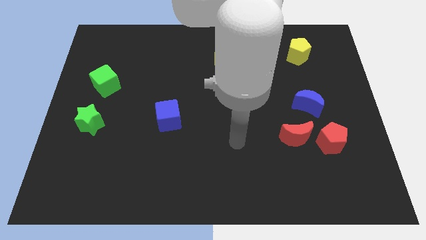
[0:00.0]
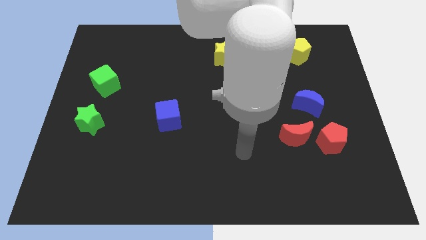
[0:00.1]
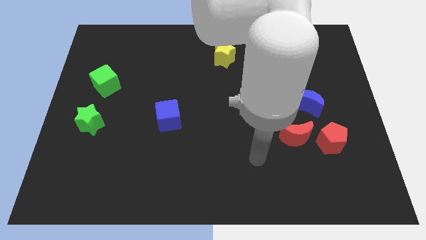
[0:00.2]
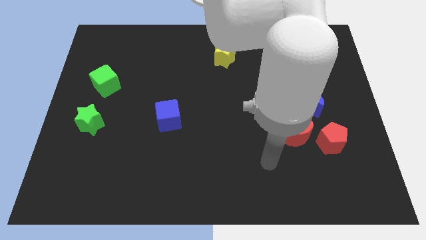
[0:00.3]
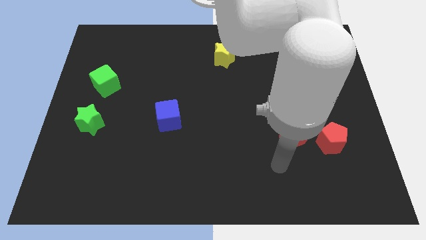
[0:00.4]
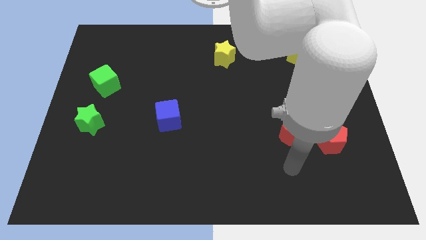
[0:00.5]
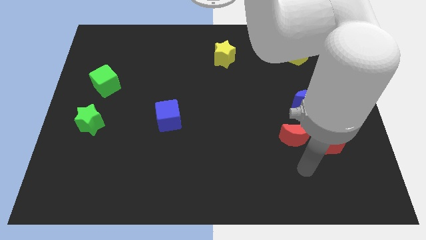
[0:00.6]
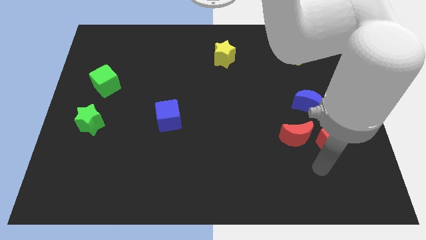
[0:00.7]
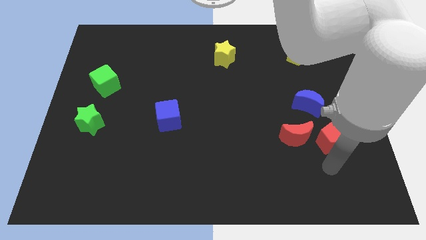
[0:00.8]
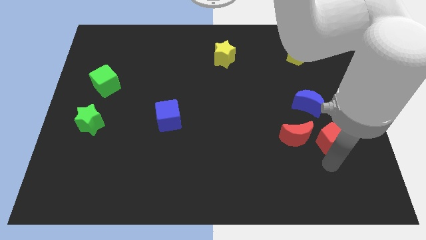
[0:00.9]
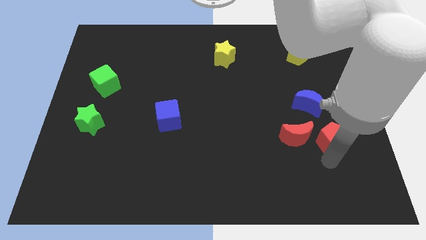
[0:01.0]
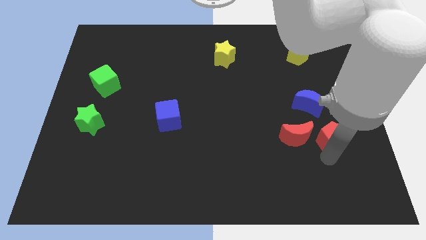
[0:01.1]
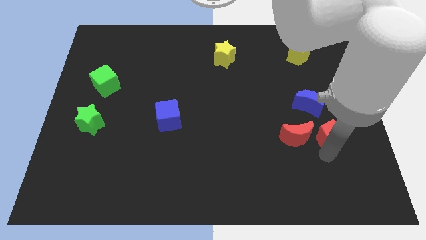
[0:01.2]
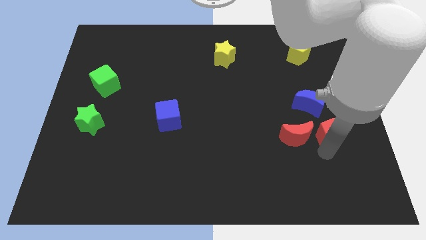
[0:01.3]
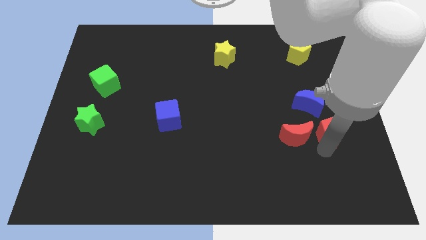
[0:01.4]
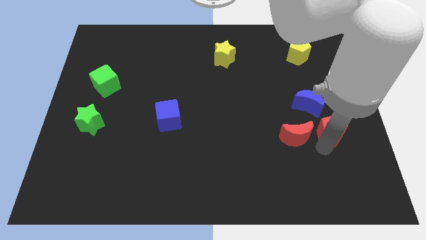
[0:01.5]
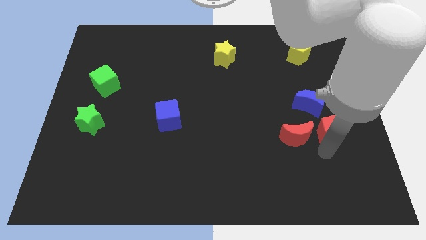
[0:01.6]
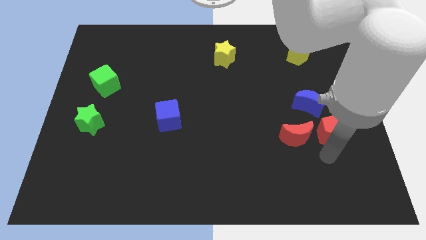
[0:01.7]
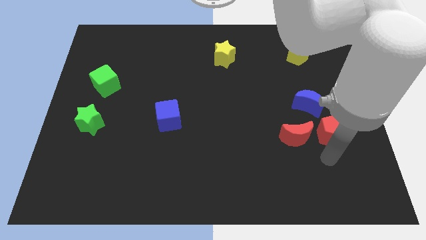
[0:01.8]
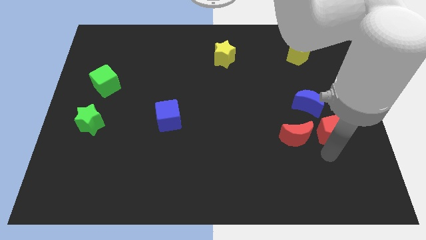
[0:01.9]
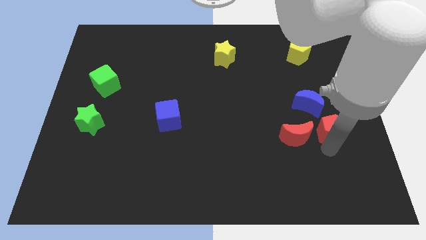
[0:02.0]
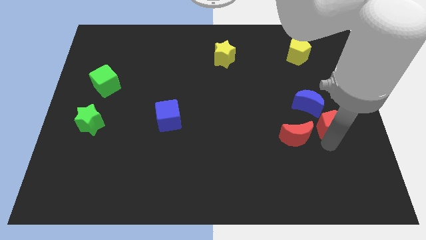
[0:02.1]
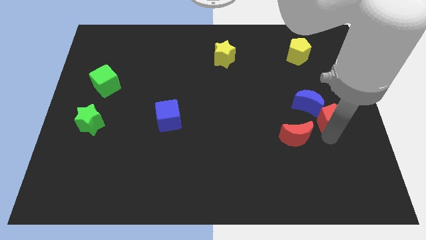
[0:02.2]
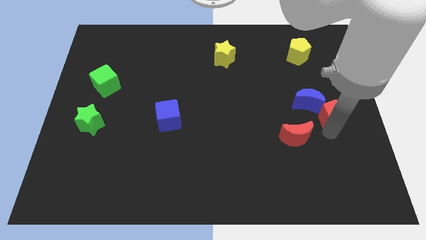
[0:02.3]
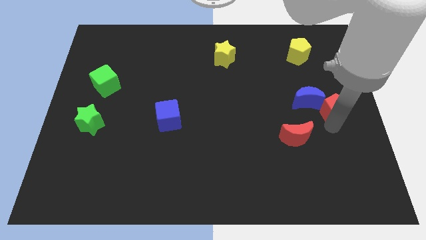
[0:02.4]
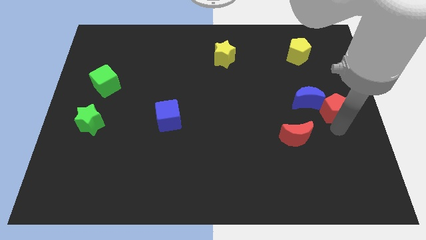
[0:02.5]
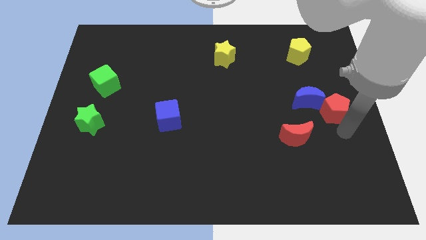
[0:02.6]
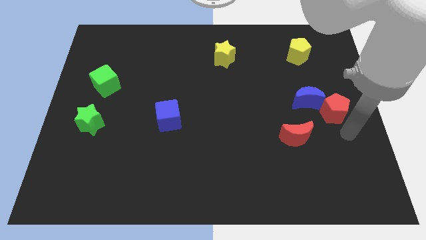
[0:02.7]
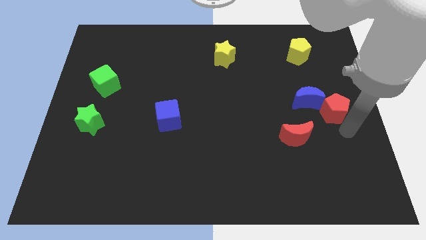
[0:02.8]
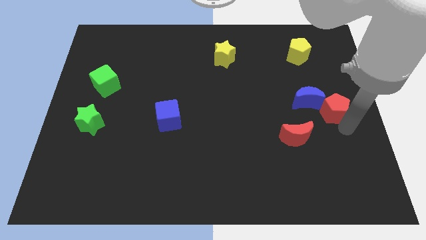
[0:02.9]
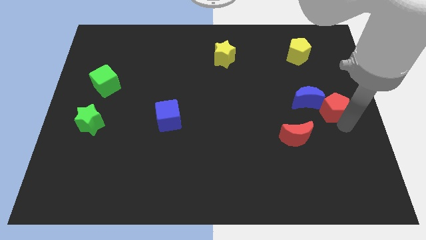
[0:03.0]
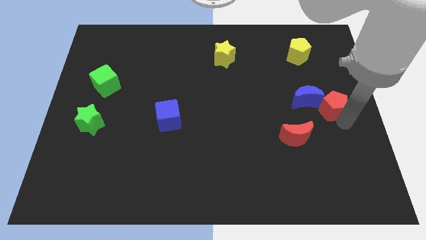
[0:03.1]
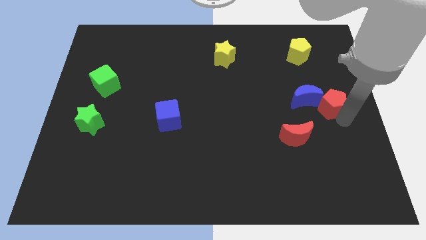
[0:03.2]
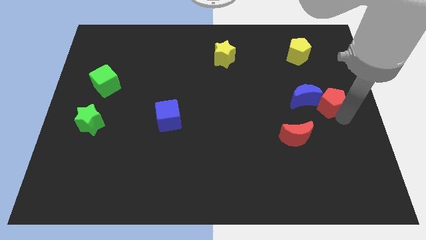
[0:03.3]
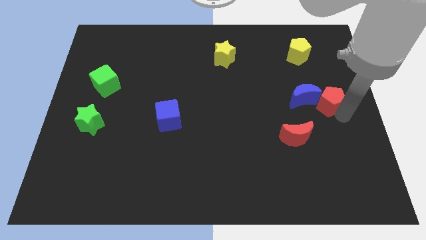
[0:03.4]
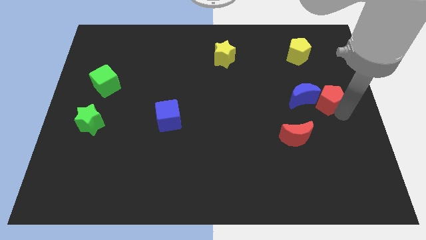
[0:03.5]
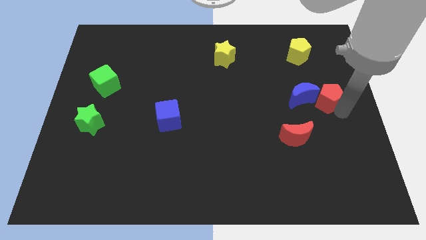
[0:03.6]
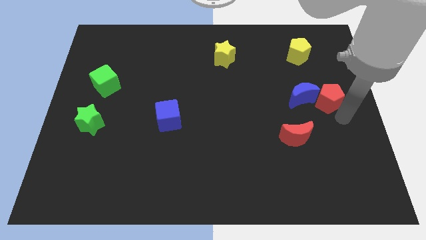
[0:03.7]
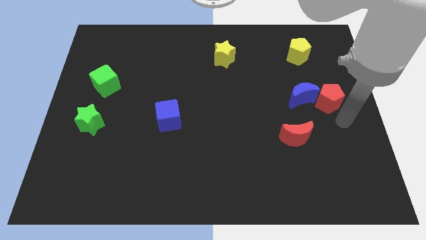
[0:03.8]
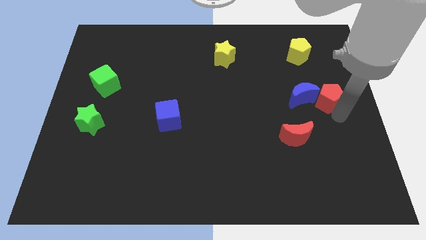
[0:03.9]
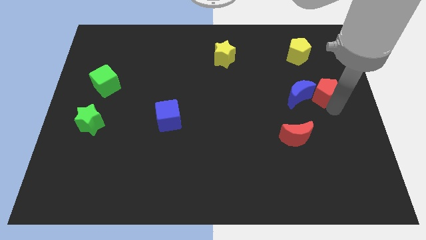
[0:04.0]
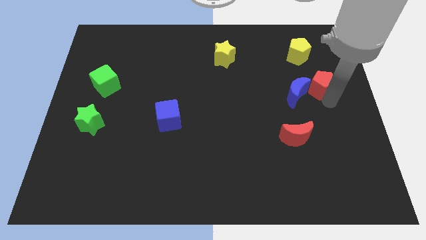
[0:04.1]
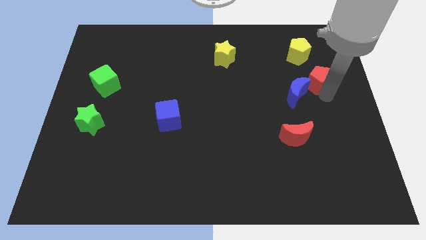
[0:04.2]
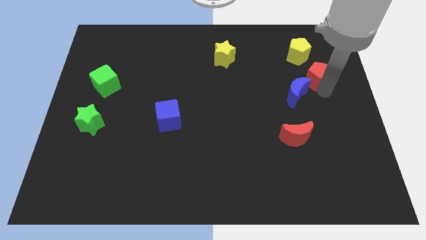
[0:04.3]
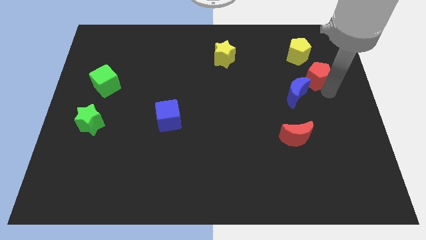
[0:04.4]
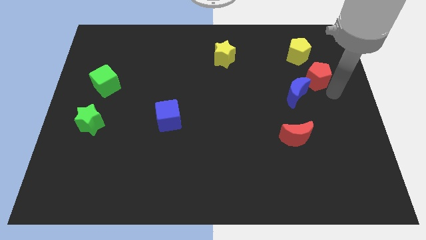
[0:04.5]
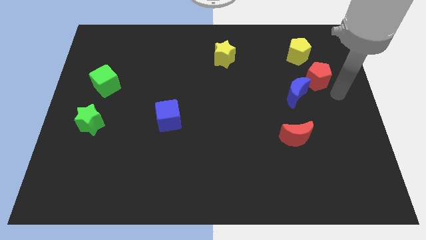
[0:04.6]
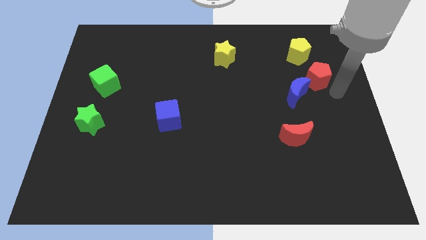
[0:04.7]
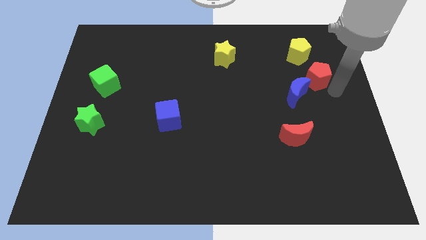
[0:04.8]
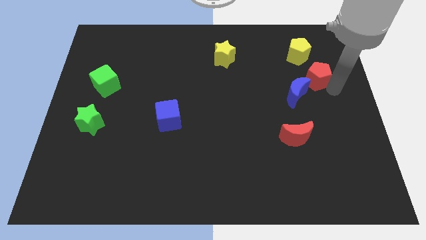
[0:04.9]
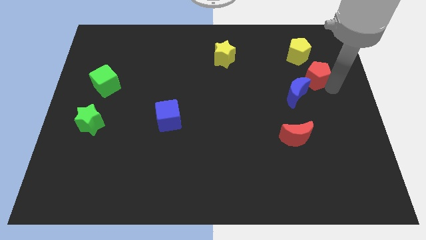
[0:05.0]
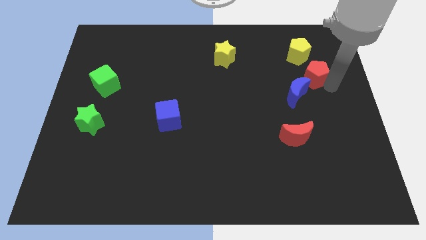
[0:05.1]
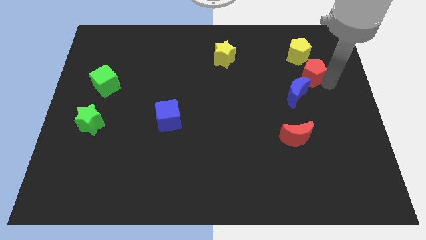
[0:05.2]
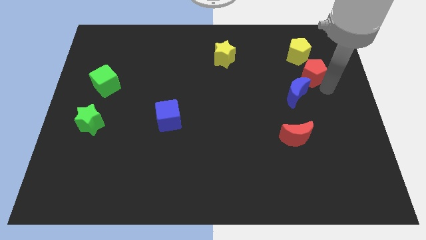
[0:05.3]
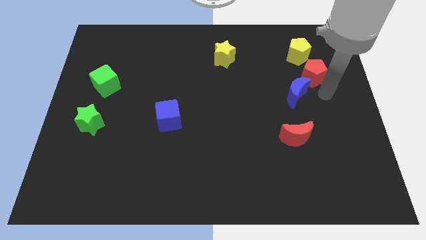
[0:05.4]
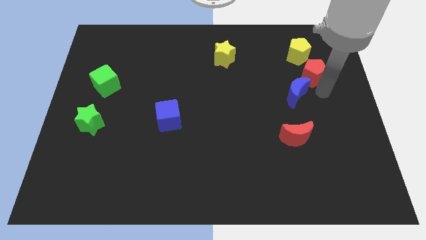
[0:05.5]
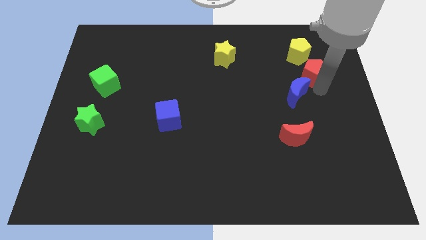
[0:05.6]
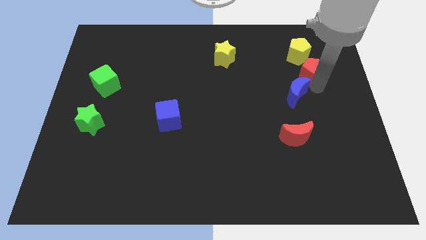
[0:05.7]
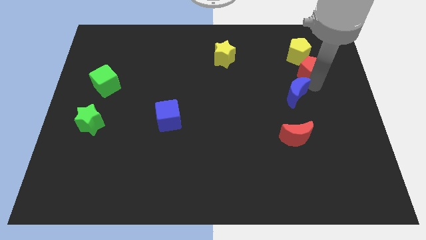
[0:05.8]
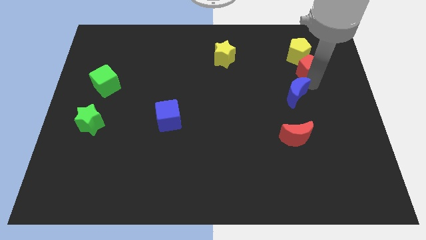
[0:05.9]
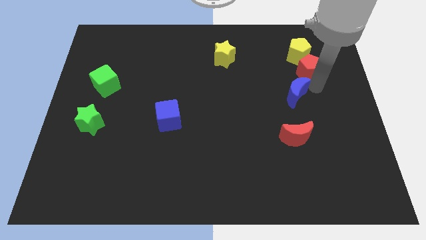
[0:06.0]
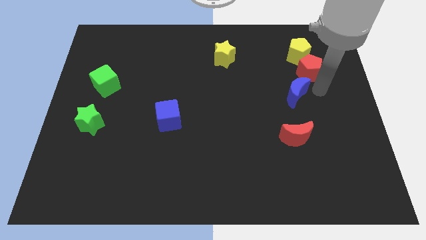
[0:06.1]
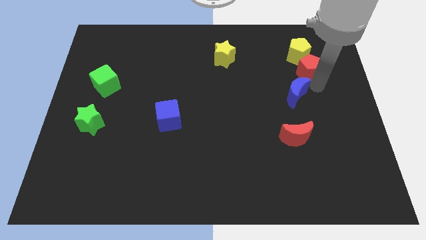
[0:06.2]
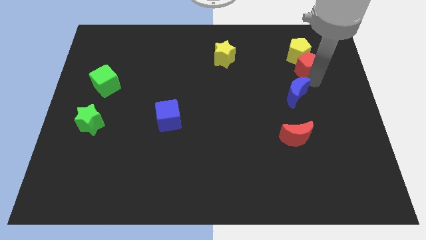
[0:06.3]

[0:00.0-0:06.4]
put the red pentagon to the yellow pentagon

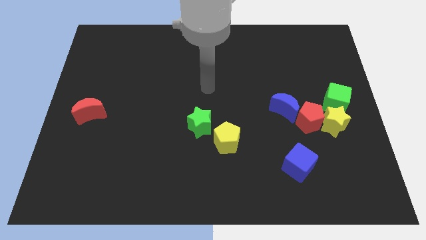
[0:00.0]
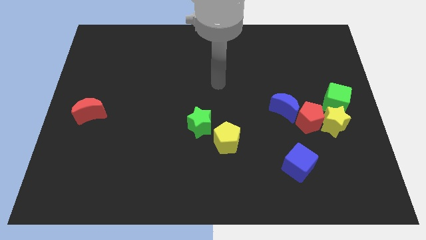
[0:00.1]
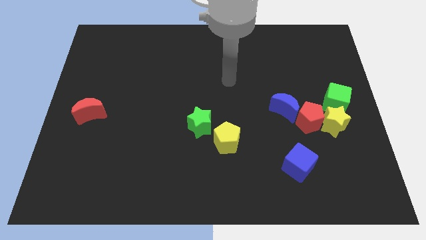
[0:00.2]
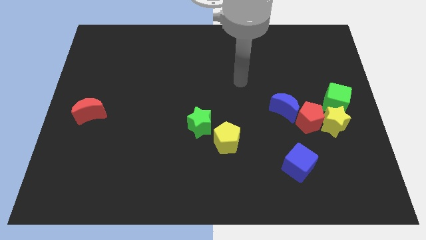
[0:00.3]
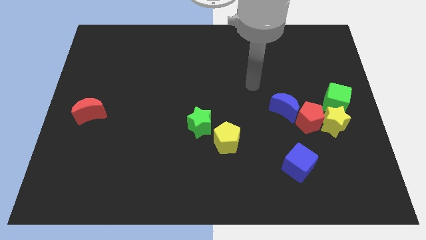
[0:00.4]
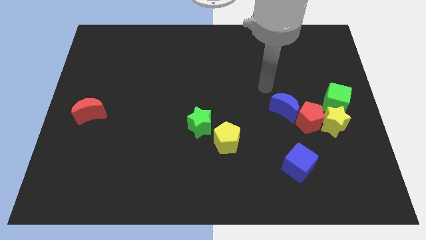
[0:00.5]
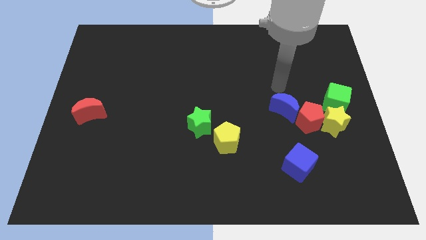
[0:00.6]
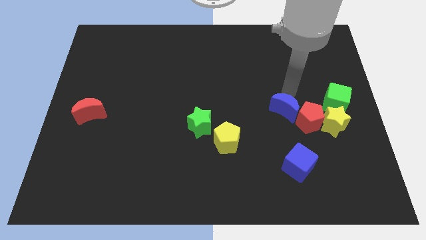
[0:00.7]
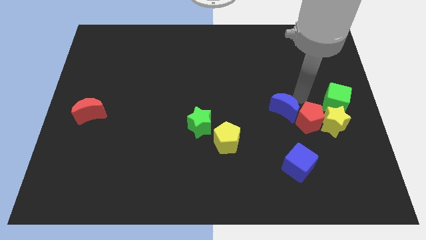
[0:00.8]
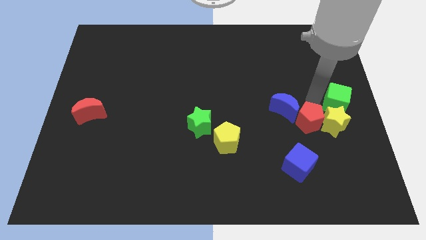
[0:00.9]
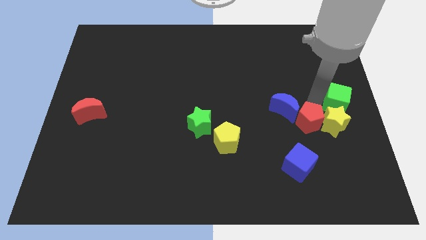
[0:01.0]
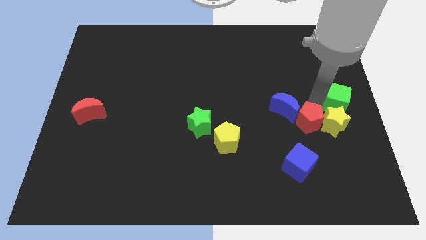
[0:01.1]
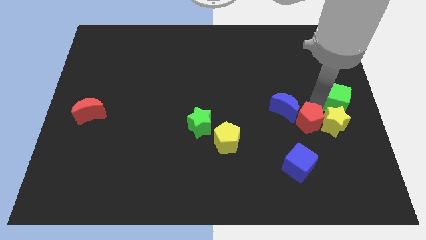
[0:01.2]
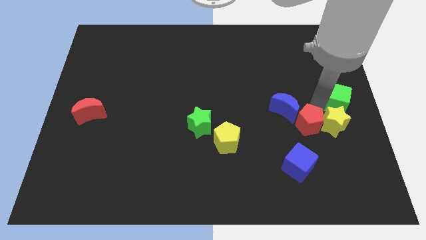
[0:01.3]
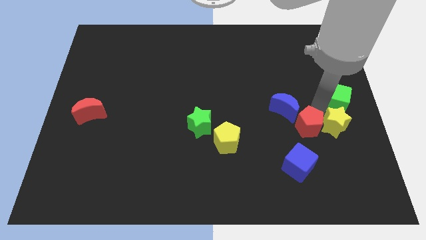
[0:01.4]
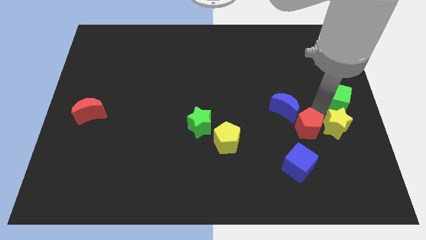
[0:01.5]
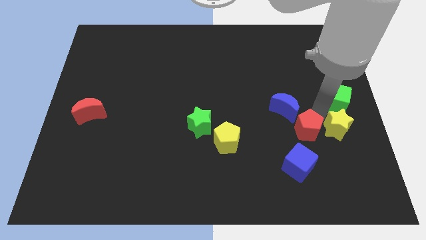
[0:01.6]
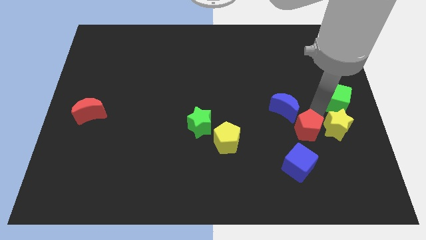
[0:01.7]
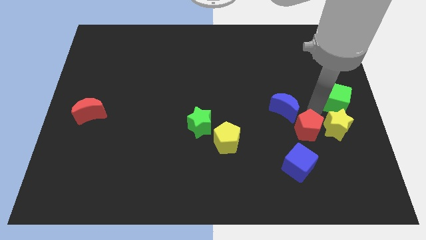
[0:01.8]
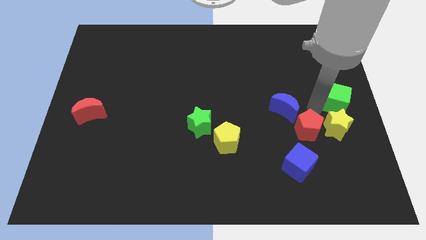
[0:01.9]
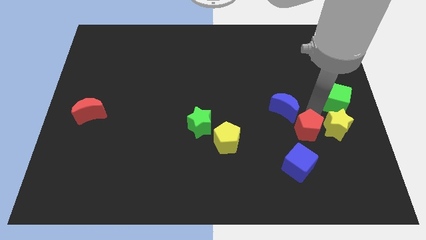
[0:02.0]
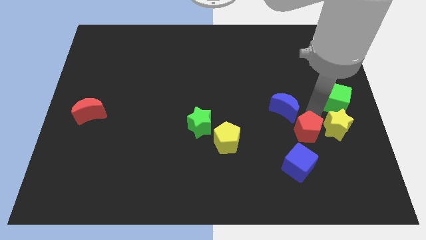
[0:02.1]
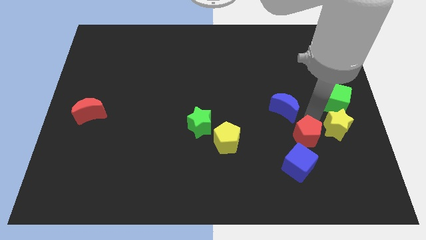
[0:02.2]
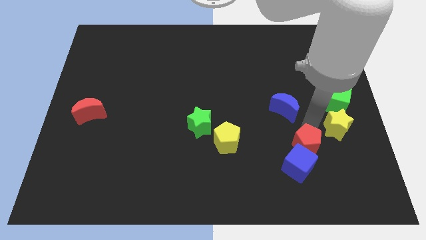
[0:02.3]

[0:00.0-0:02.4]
push the red pentagon next to the blue cube
